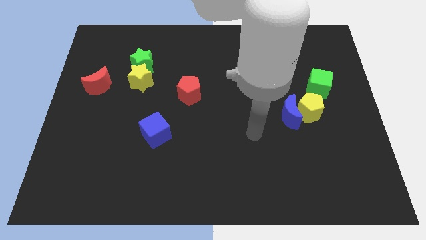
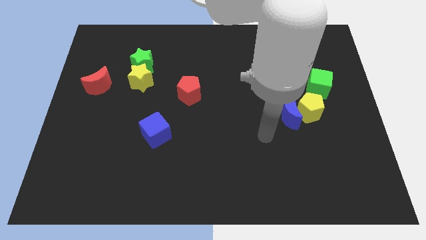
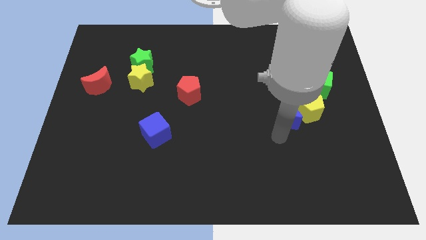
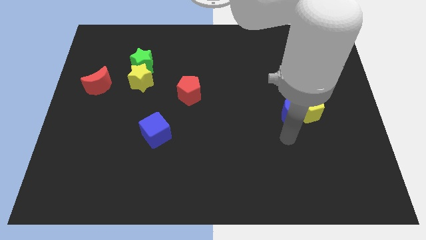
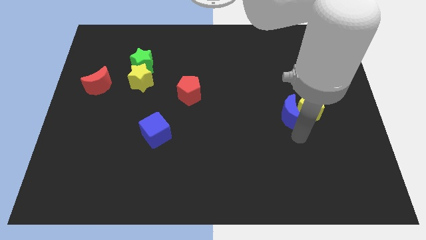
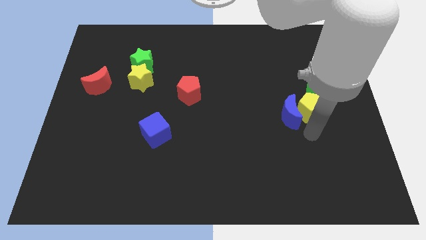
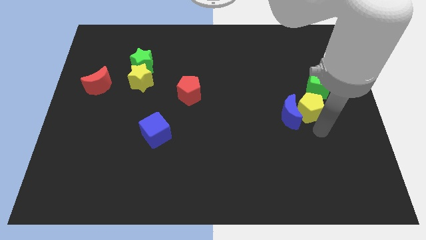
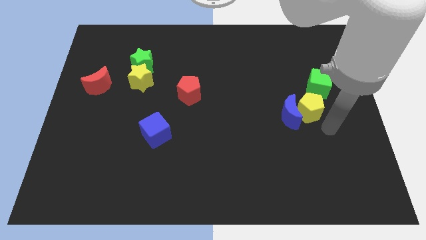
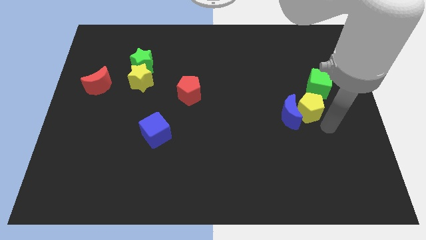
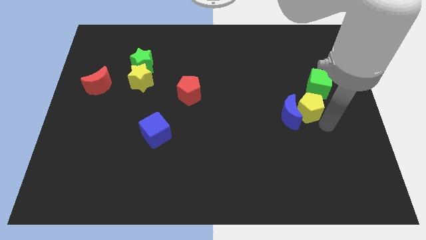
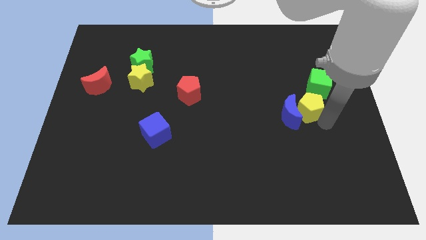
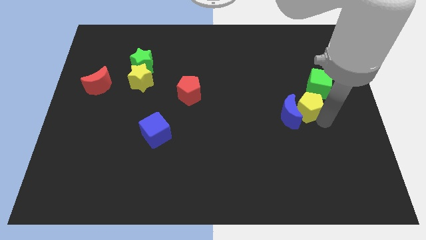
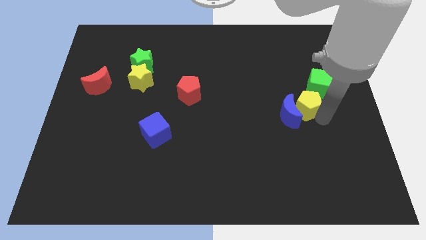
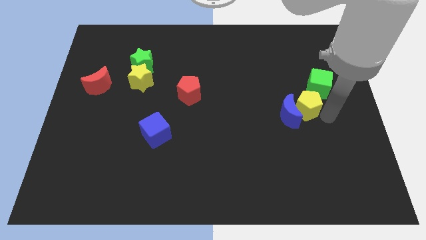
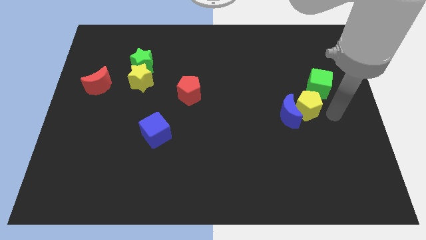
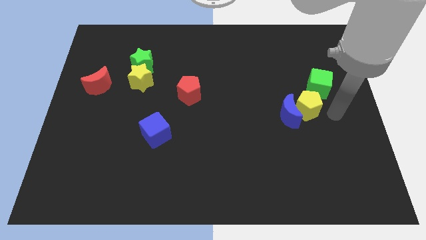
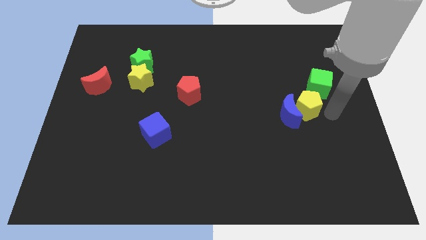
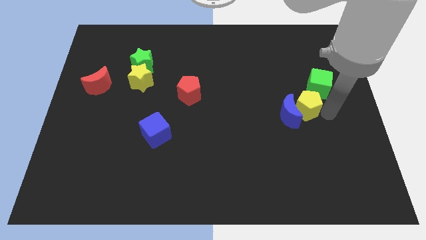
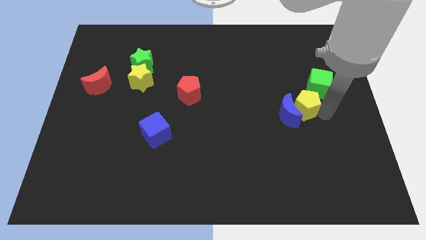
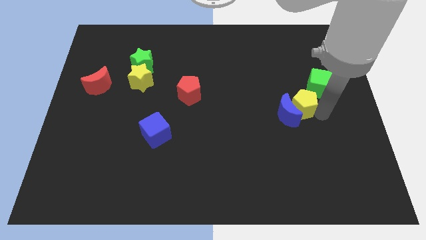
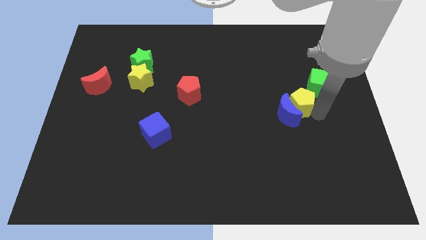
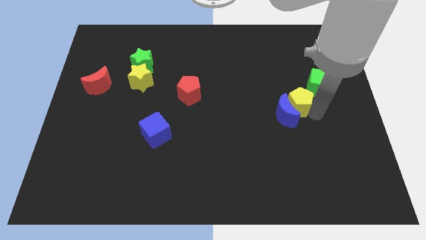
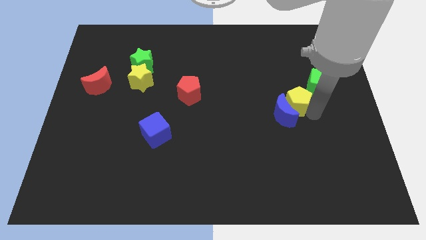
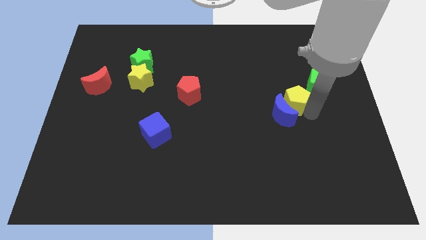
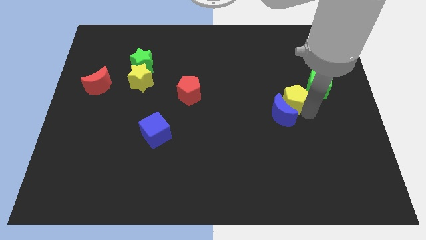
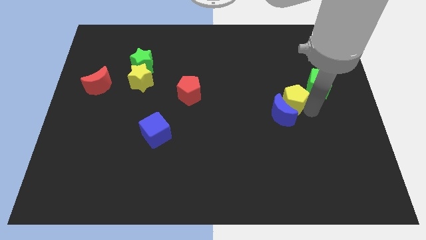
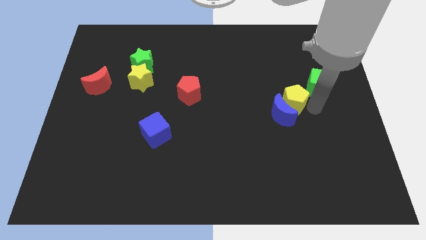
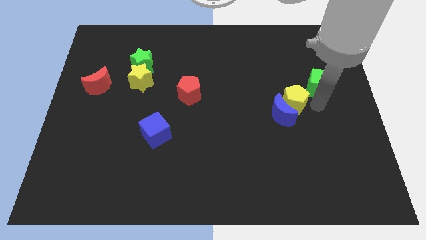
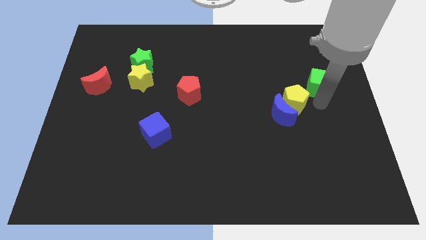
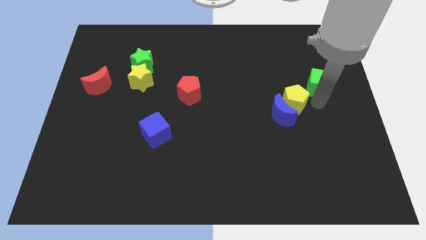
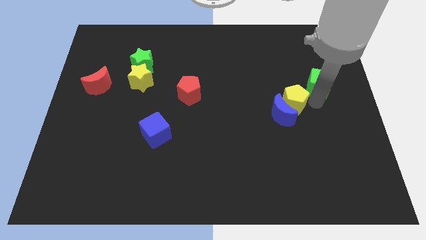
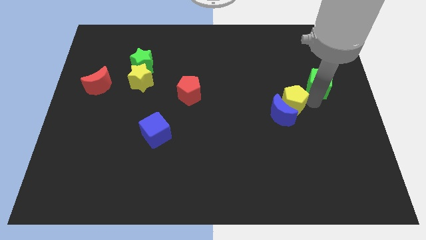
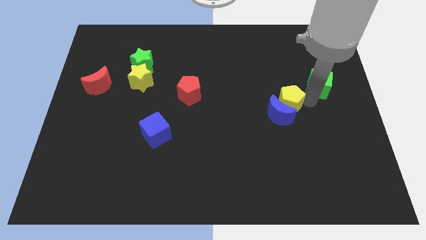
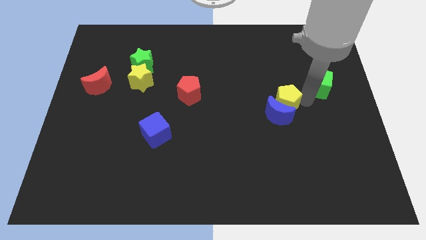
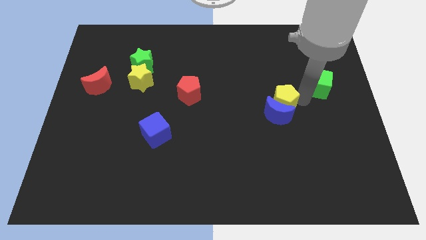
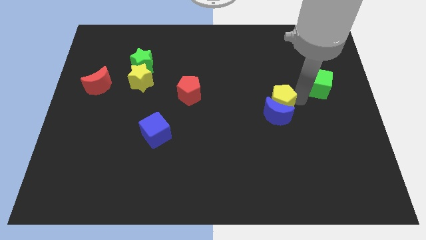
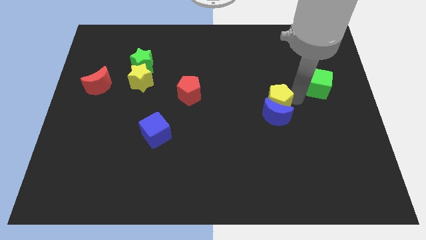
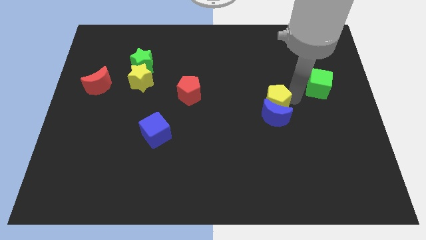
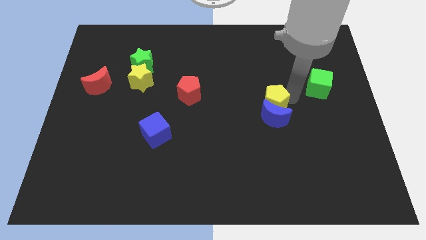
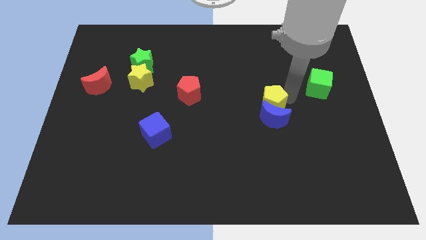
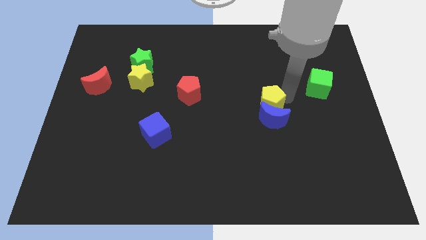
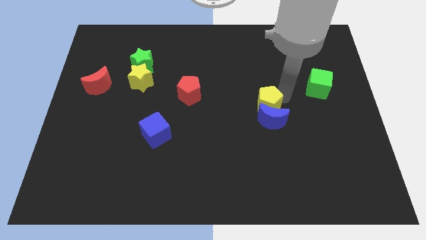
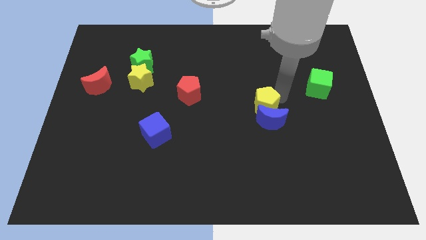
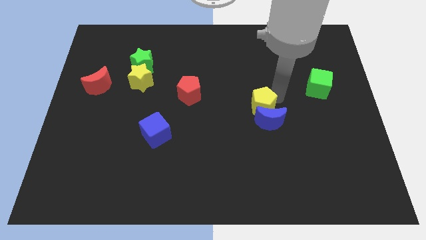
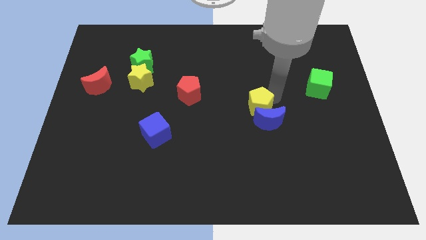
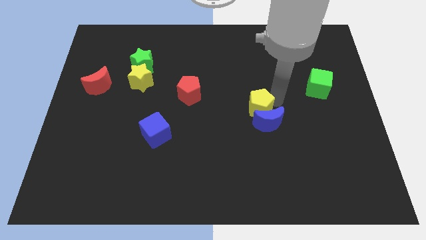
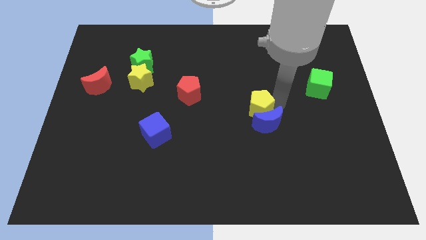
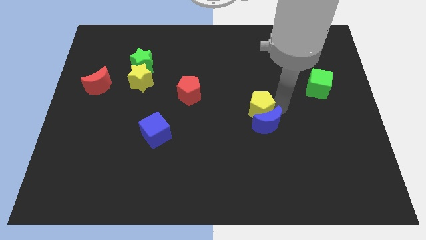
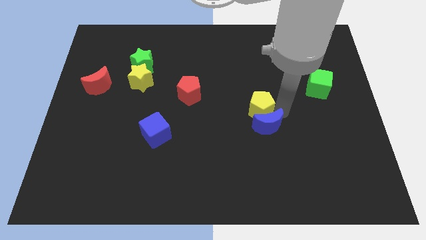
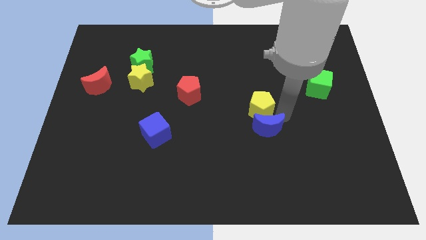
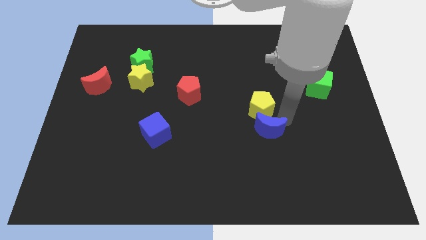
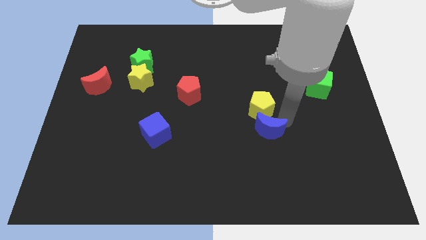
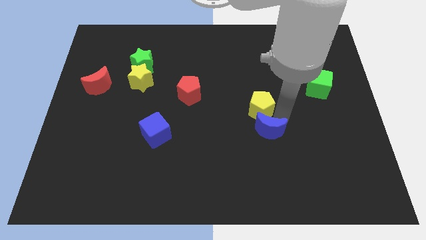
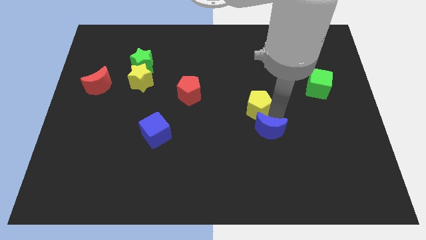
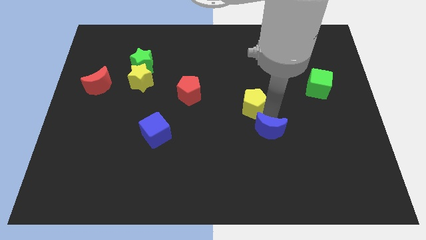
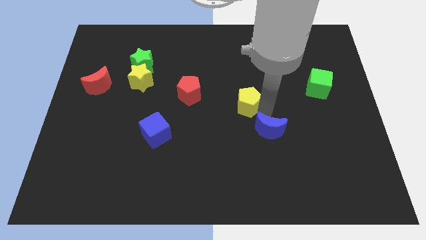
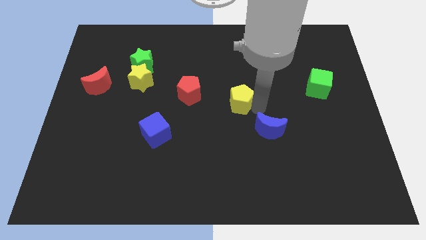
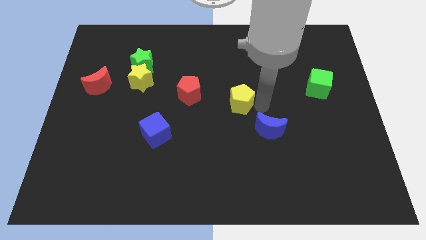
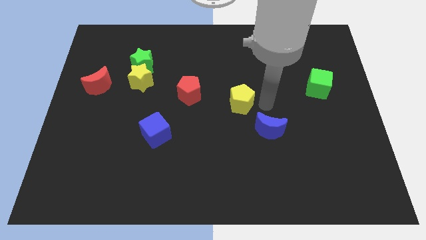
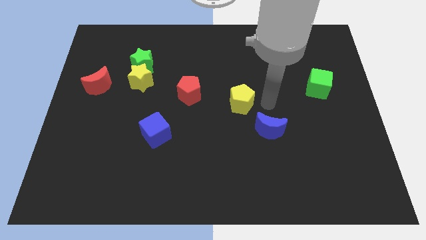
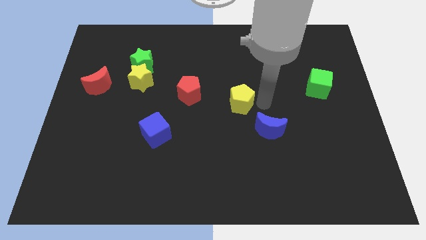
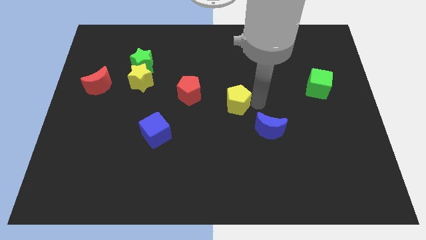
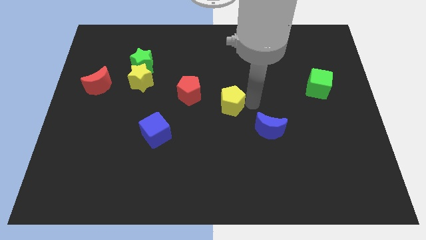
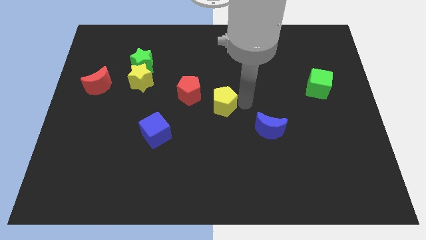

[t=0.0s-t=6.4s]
slide the yellow pentagon left

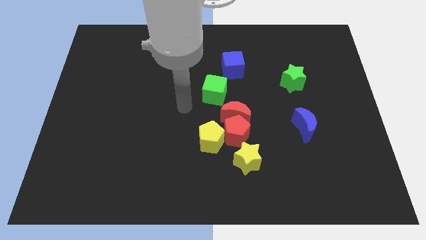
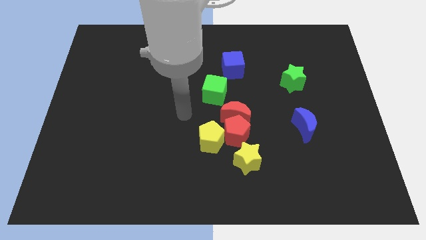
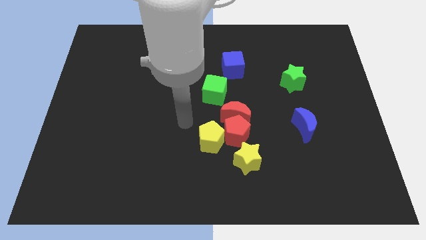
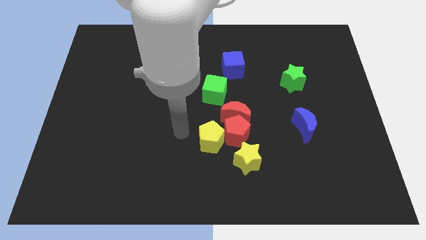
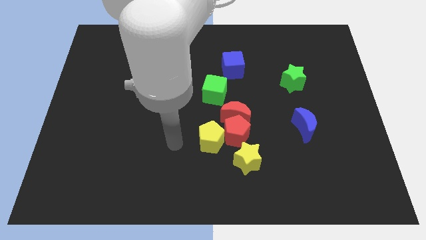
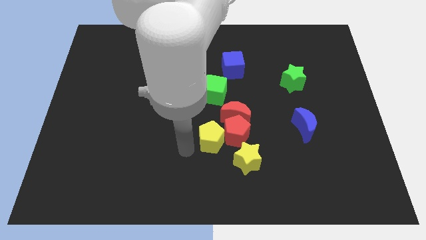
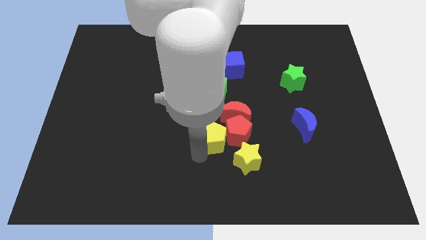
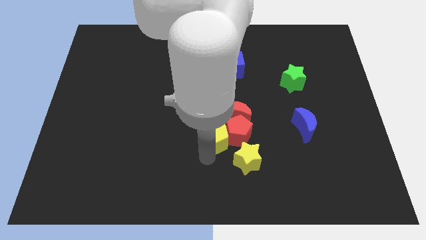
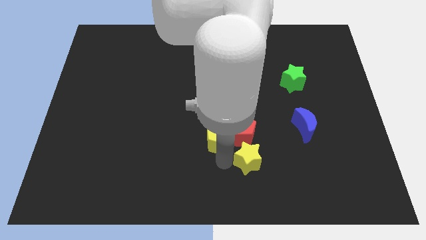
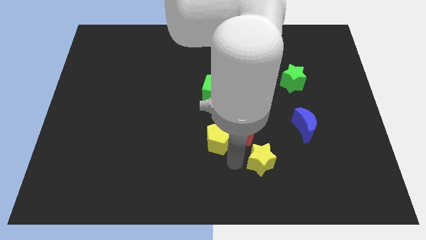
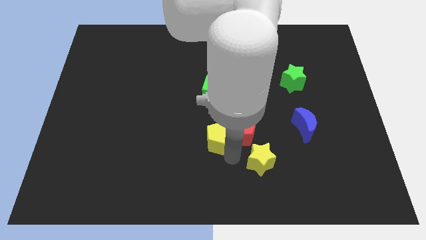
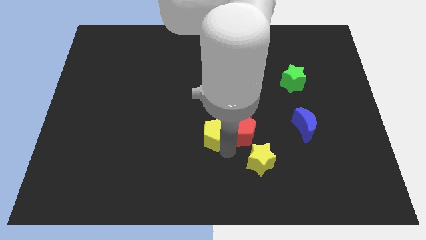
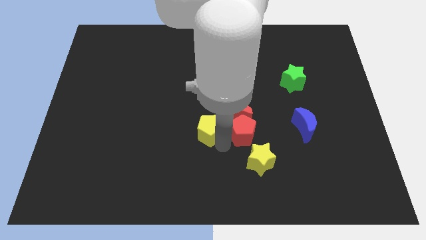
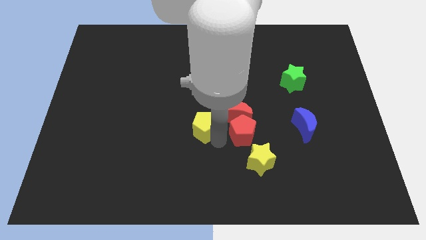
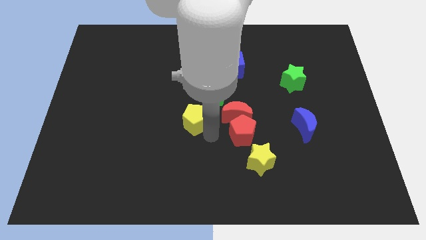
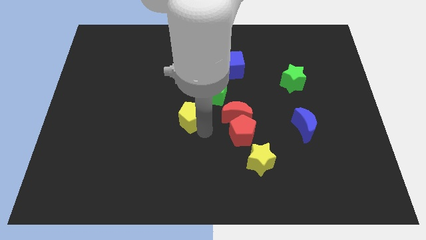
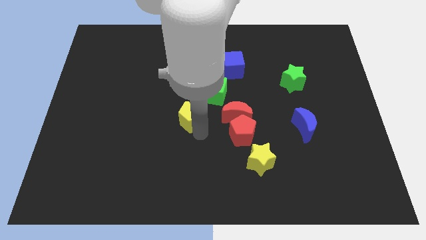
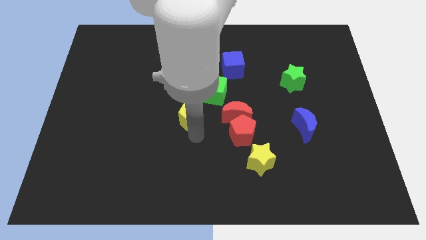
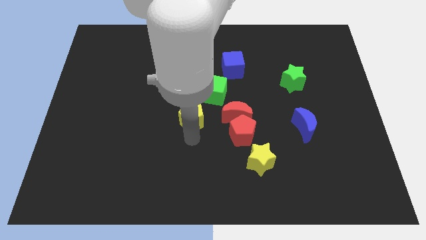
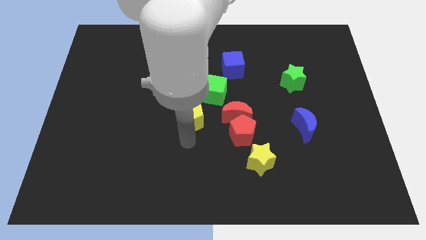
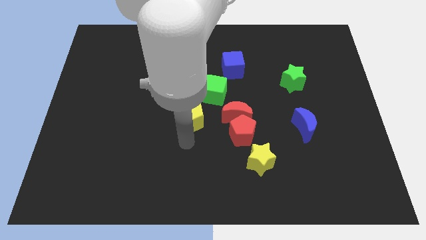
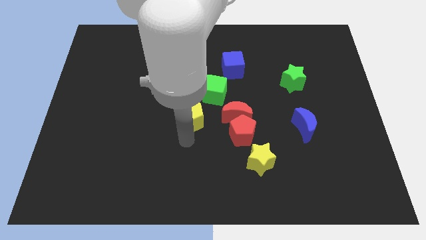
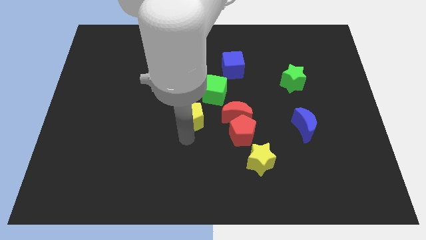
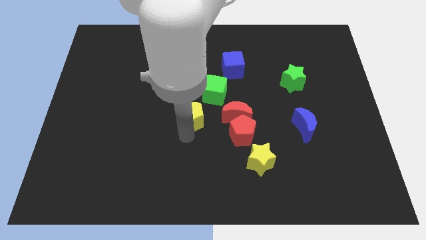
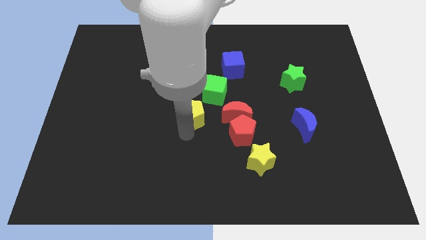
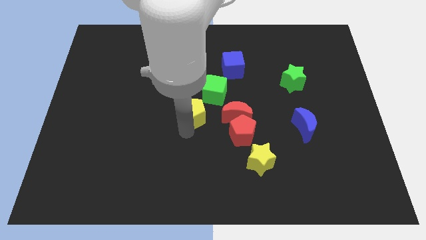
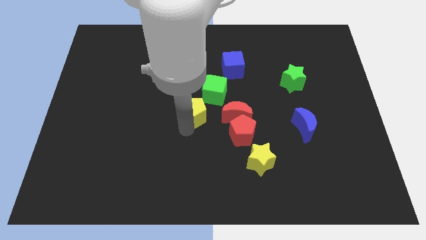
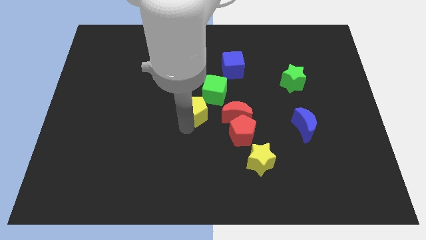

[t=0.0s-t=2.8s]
move the yellow pentagon a little upwards
